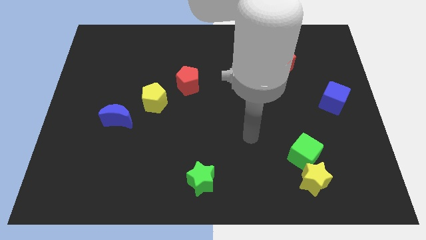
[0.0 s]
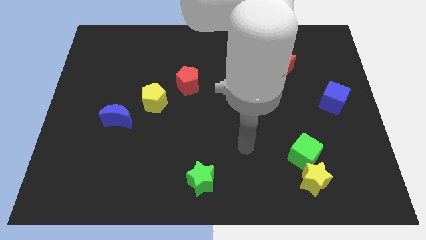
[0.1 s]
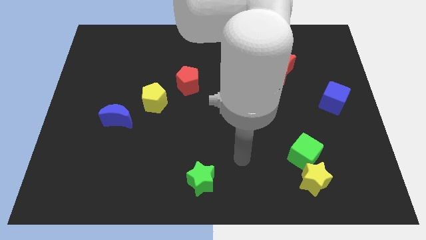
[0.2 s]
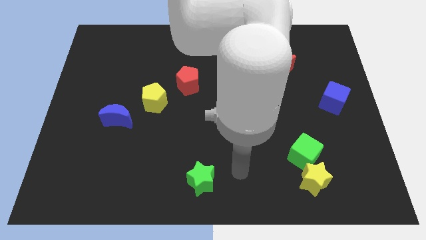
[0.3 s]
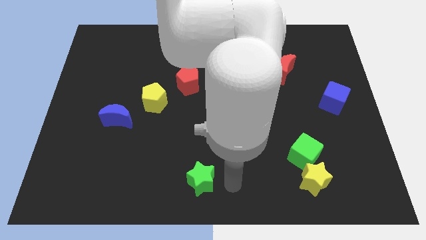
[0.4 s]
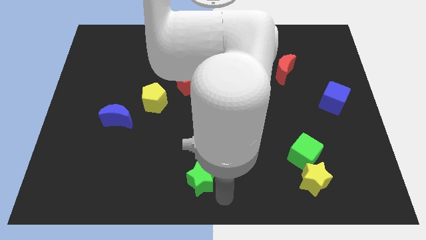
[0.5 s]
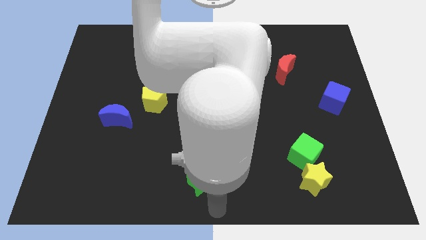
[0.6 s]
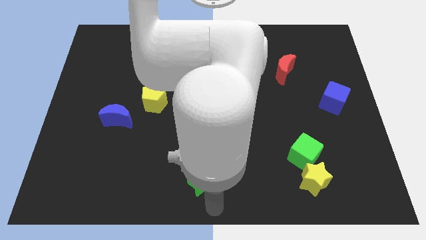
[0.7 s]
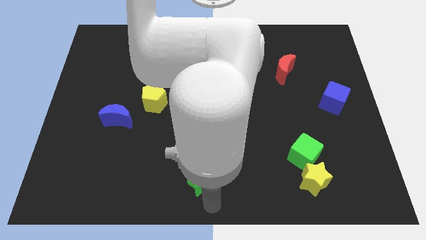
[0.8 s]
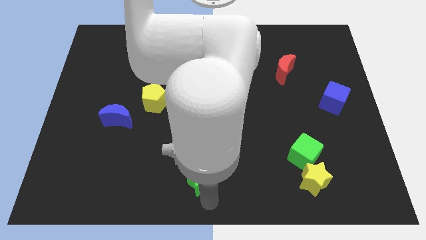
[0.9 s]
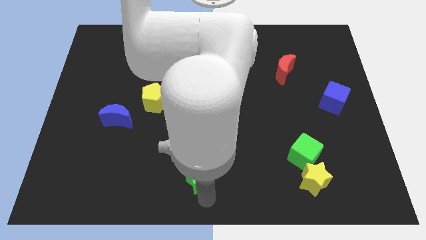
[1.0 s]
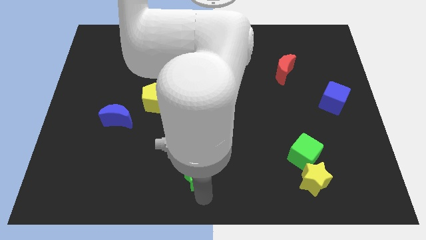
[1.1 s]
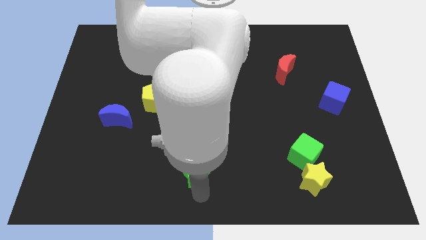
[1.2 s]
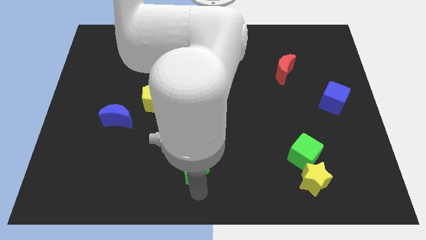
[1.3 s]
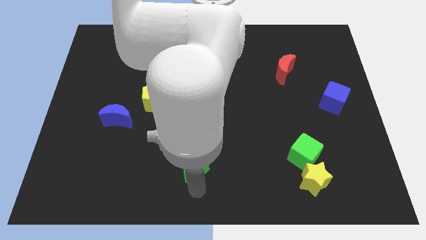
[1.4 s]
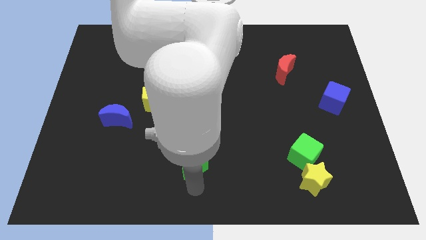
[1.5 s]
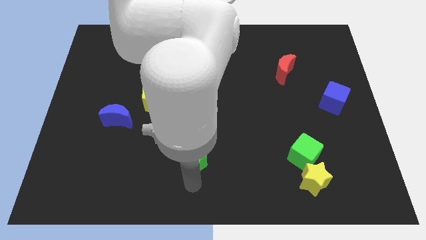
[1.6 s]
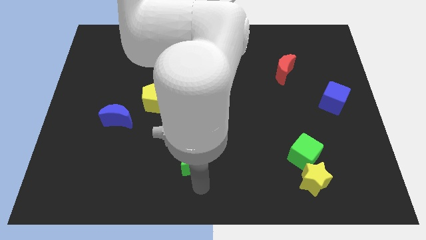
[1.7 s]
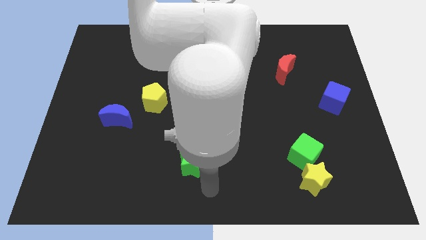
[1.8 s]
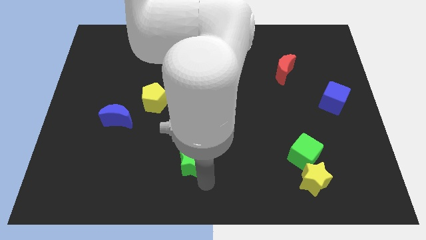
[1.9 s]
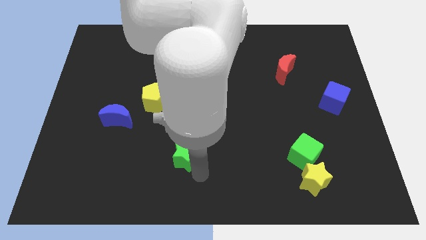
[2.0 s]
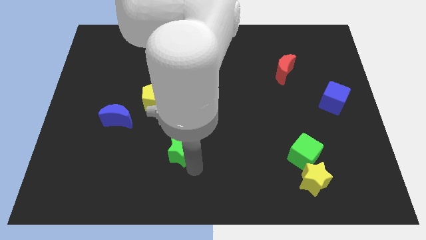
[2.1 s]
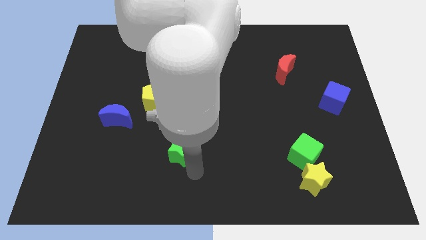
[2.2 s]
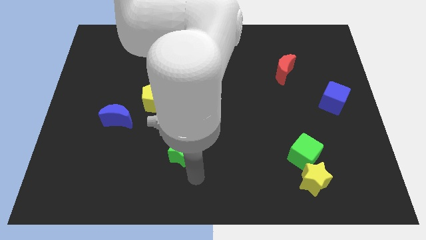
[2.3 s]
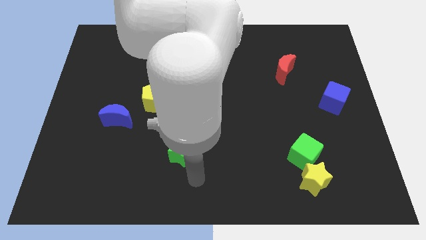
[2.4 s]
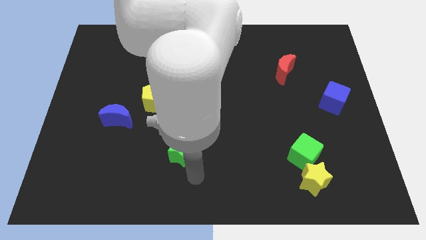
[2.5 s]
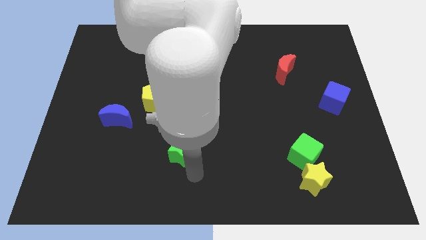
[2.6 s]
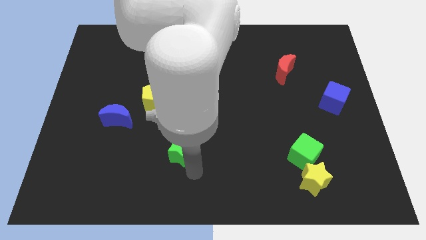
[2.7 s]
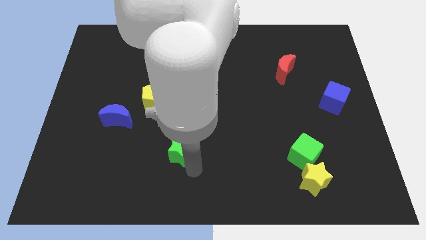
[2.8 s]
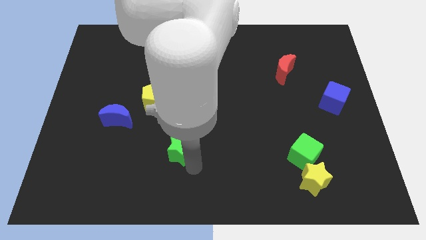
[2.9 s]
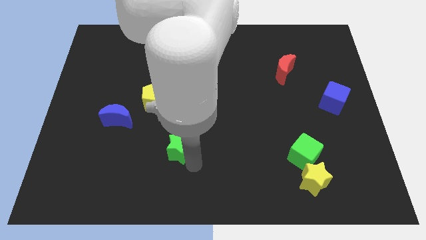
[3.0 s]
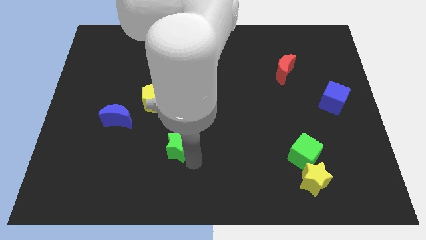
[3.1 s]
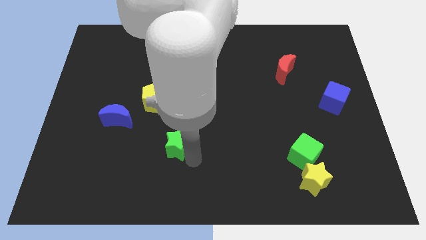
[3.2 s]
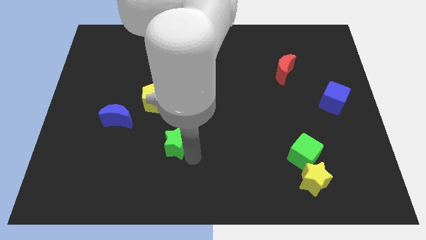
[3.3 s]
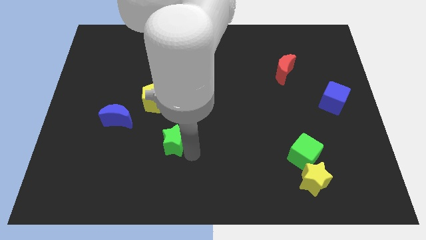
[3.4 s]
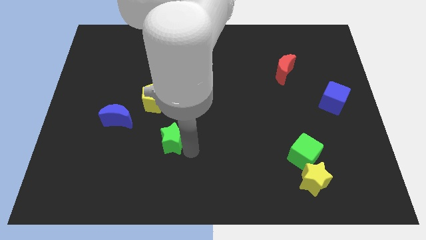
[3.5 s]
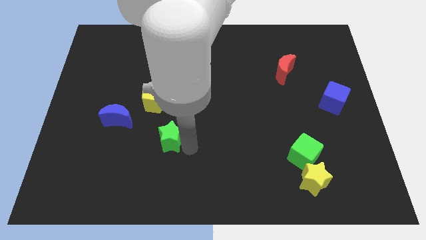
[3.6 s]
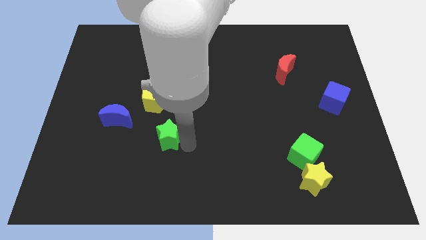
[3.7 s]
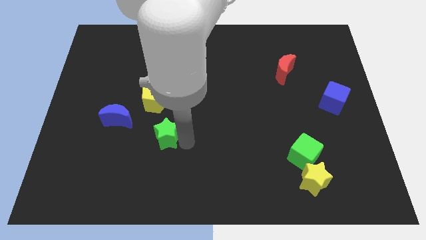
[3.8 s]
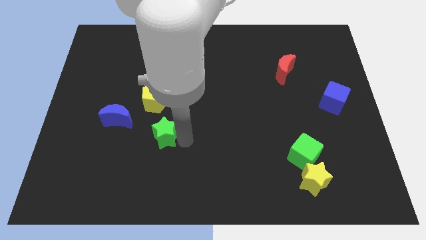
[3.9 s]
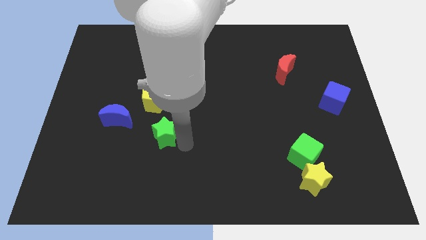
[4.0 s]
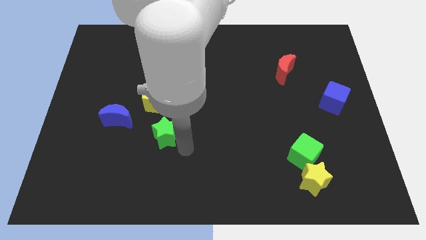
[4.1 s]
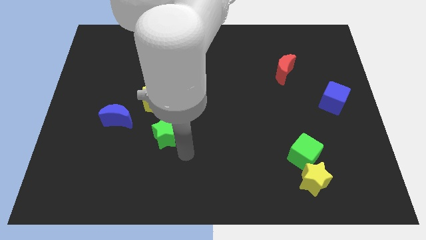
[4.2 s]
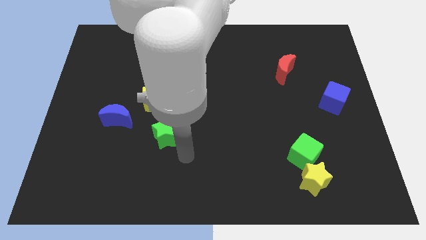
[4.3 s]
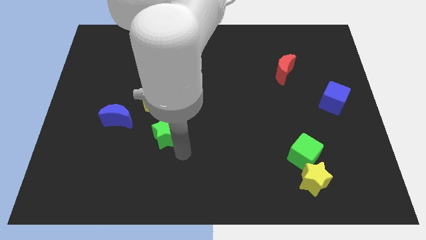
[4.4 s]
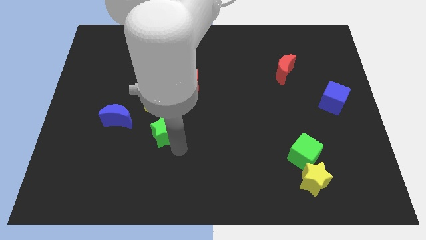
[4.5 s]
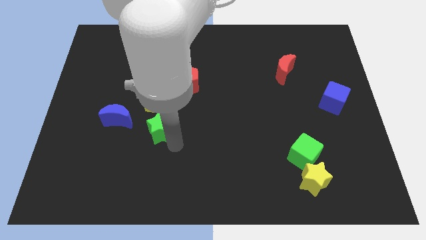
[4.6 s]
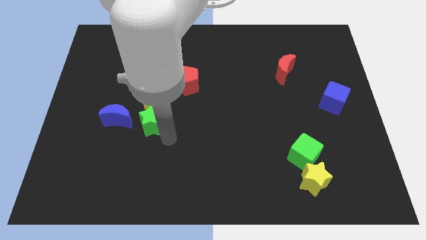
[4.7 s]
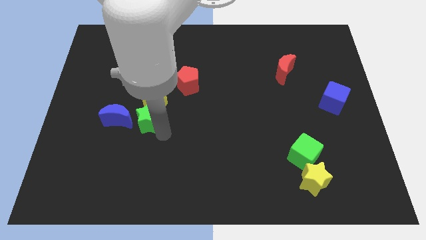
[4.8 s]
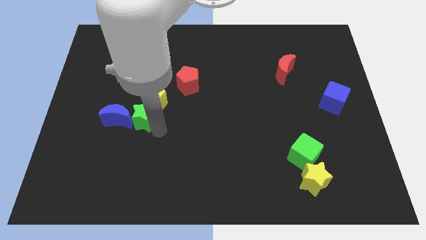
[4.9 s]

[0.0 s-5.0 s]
slide the green star up and left

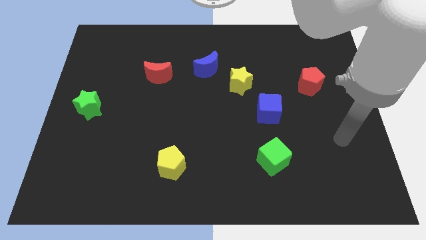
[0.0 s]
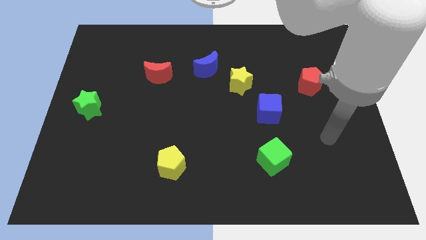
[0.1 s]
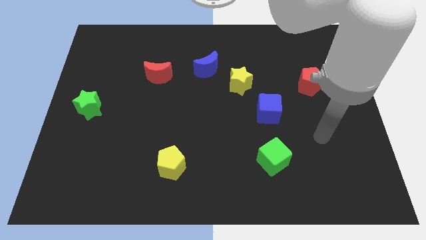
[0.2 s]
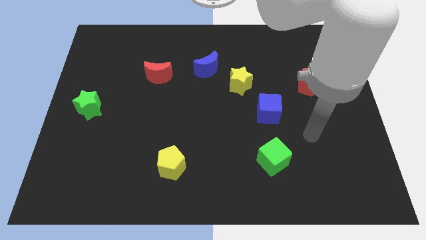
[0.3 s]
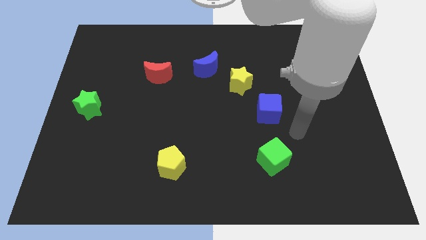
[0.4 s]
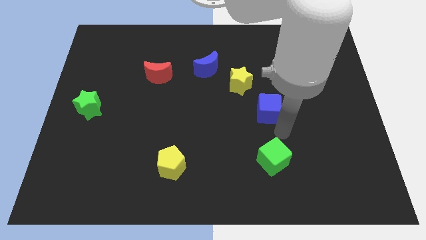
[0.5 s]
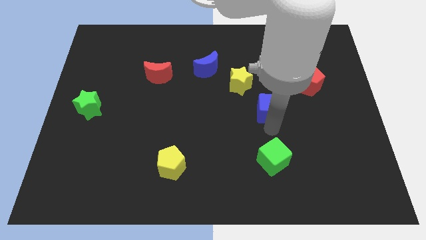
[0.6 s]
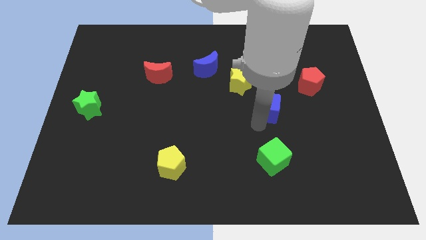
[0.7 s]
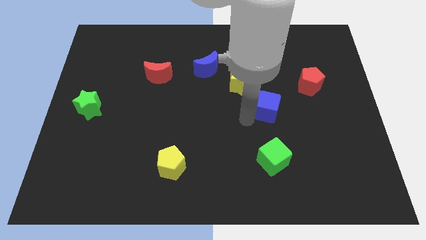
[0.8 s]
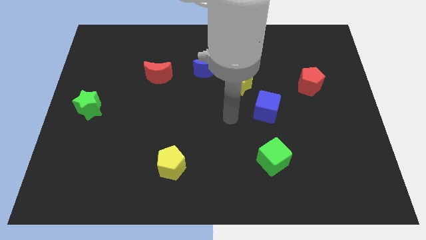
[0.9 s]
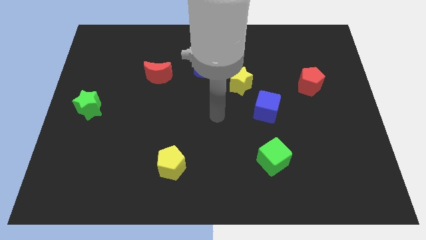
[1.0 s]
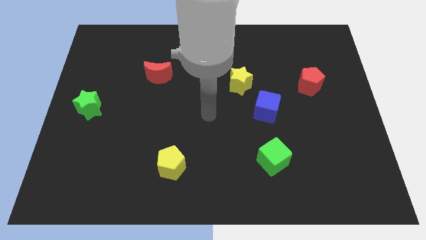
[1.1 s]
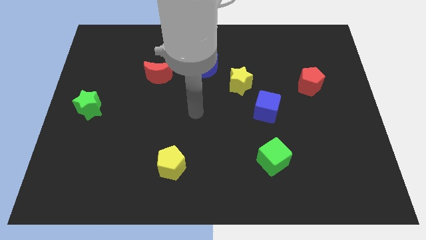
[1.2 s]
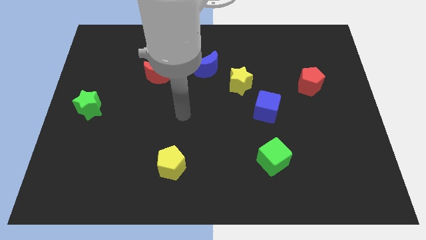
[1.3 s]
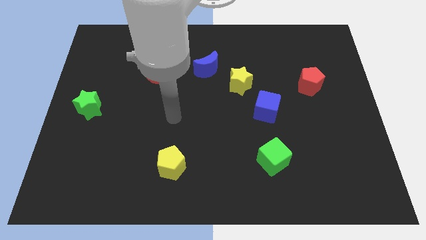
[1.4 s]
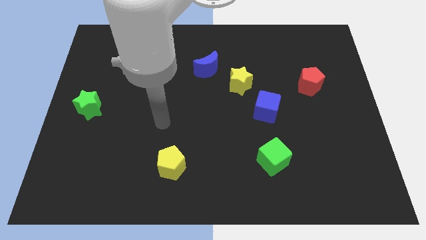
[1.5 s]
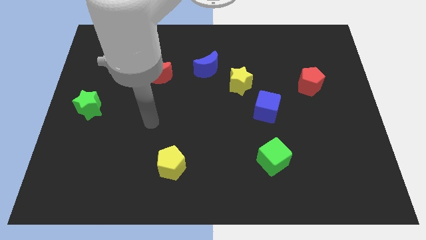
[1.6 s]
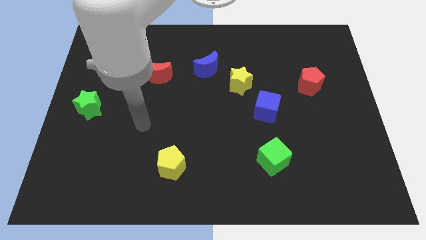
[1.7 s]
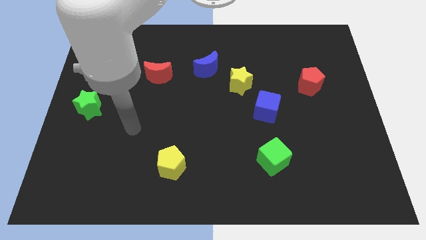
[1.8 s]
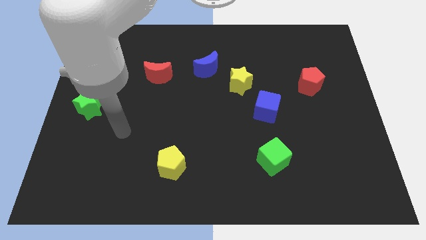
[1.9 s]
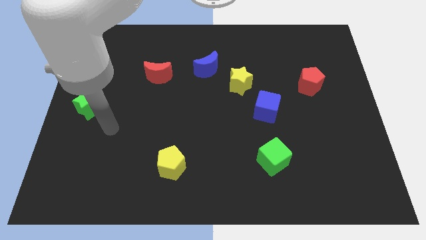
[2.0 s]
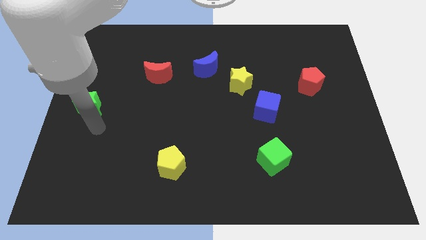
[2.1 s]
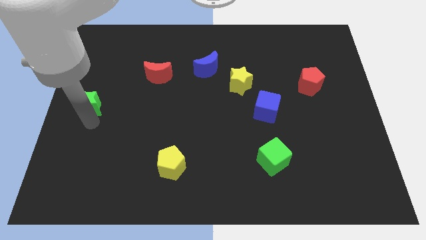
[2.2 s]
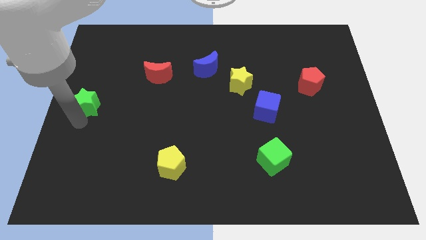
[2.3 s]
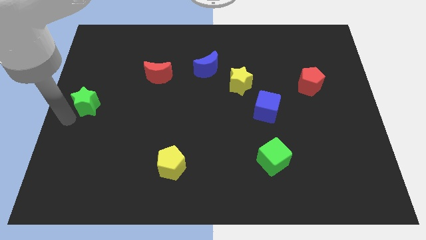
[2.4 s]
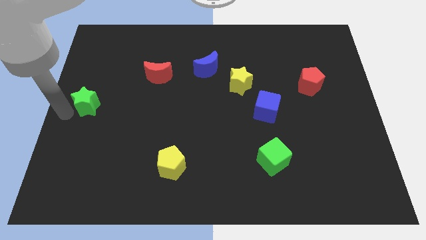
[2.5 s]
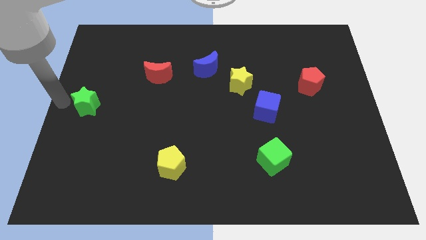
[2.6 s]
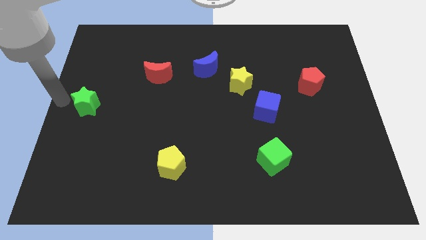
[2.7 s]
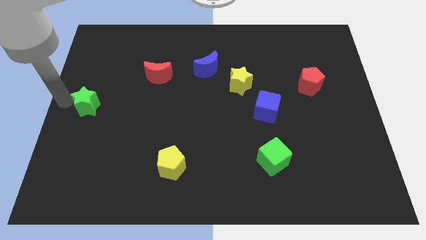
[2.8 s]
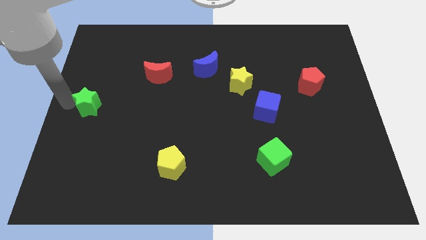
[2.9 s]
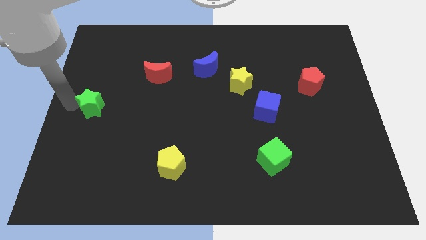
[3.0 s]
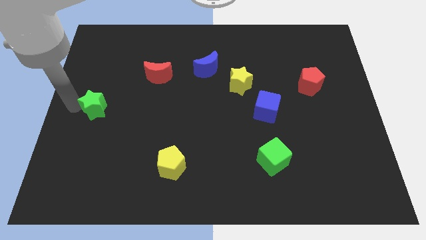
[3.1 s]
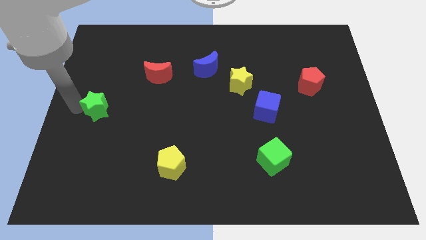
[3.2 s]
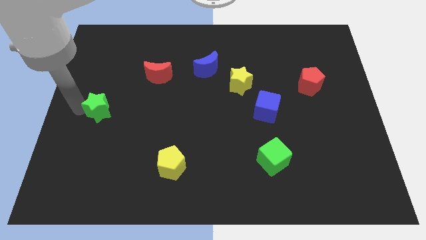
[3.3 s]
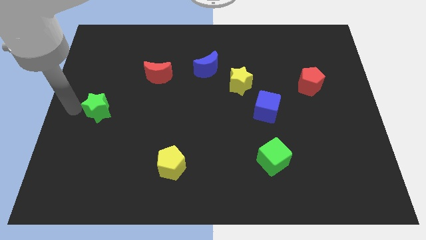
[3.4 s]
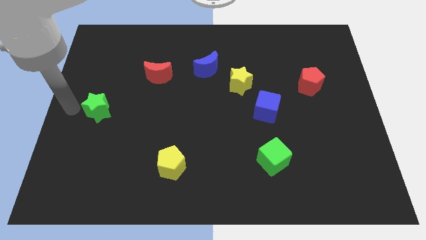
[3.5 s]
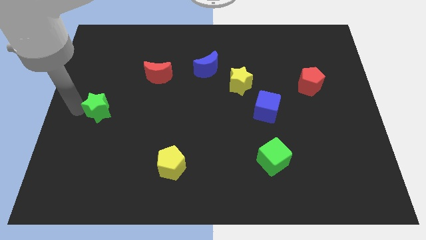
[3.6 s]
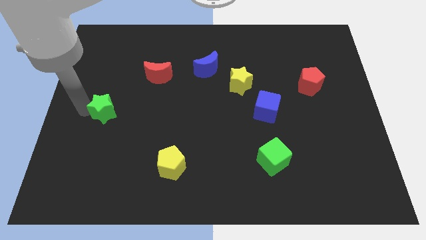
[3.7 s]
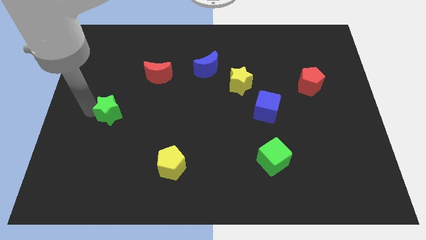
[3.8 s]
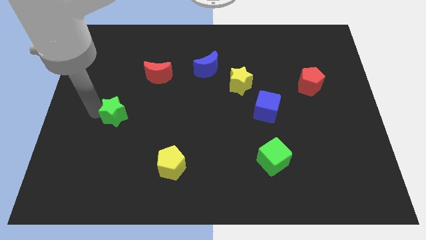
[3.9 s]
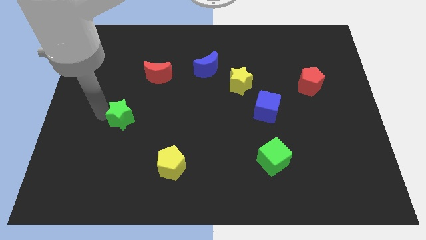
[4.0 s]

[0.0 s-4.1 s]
slightly move the green star to the right
